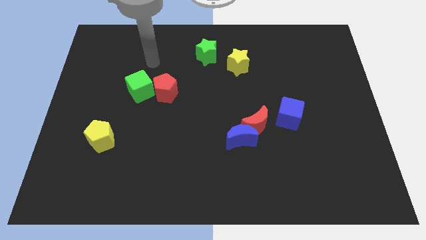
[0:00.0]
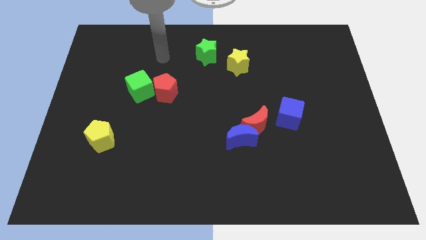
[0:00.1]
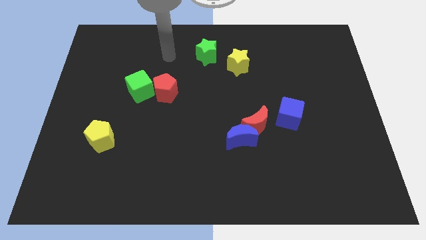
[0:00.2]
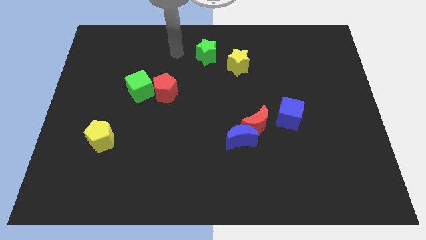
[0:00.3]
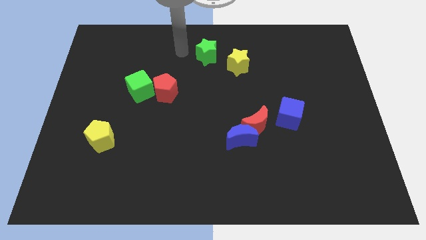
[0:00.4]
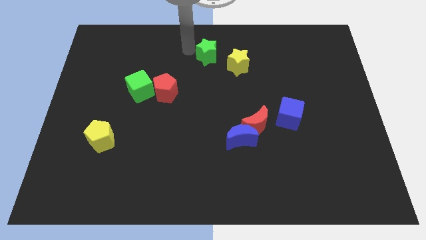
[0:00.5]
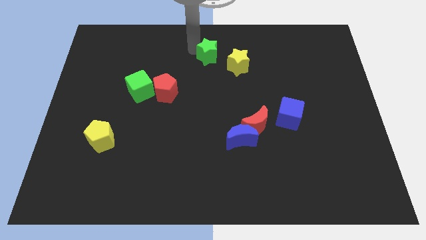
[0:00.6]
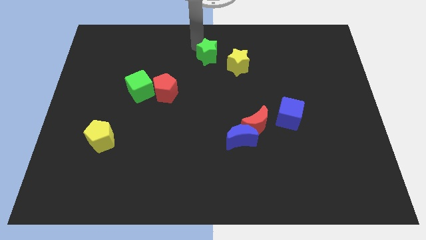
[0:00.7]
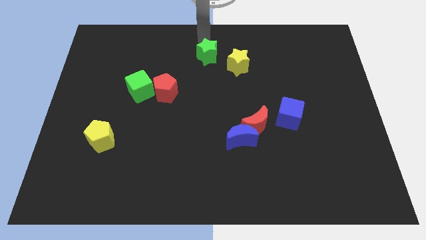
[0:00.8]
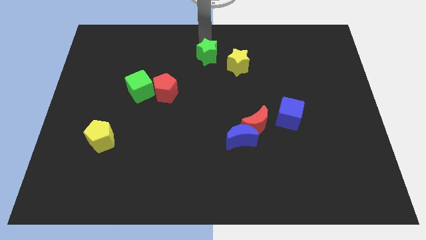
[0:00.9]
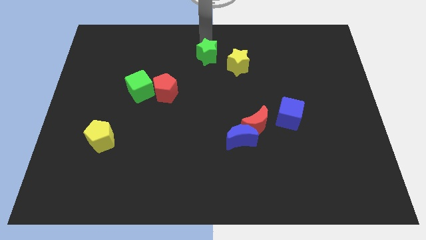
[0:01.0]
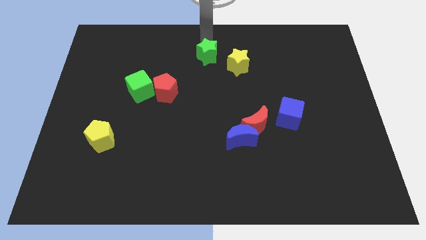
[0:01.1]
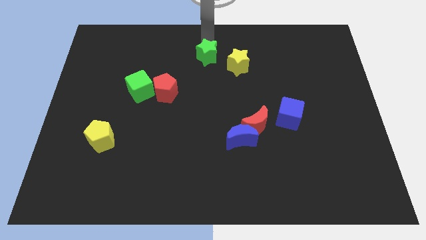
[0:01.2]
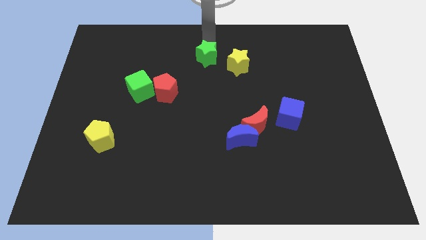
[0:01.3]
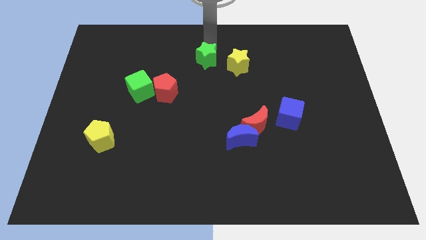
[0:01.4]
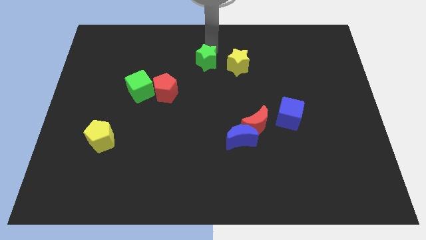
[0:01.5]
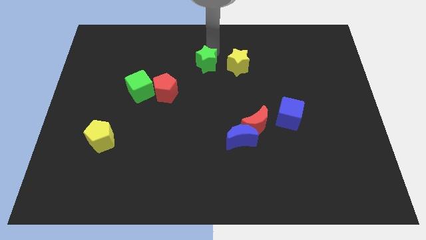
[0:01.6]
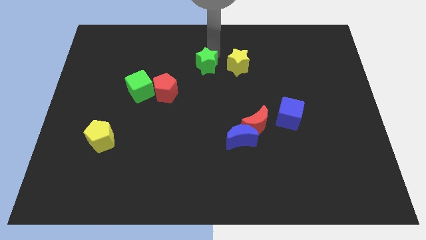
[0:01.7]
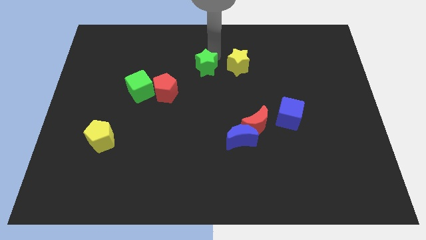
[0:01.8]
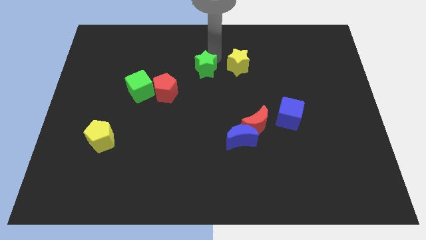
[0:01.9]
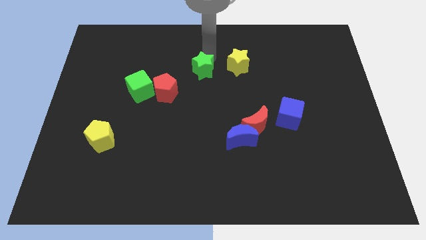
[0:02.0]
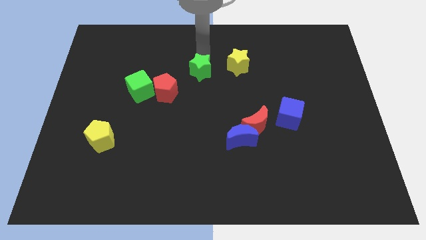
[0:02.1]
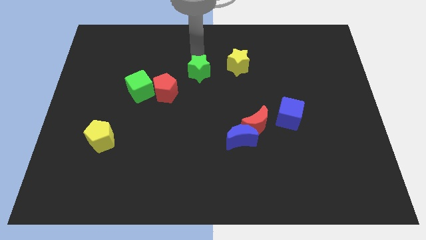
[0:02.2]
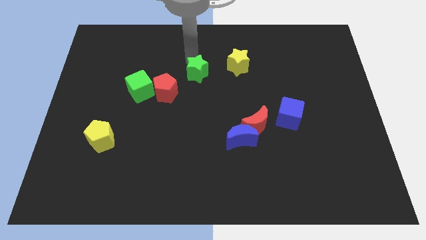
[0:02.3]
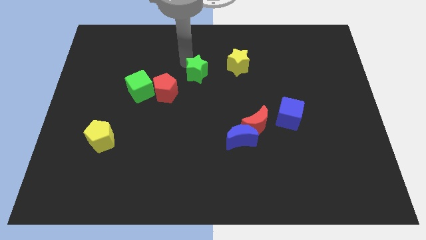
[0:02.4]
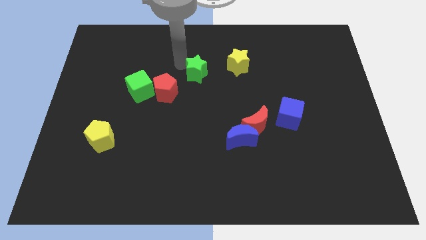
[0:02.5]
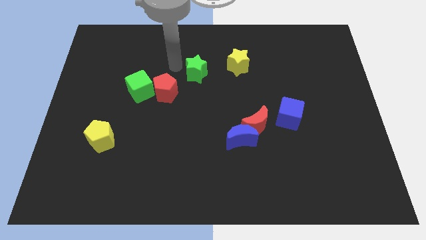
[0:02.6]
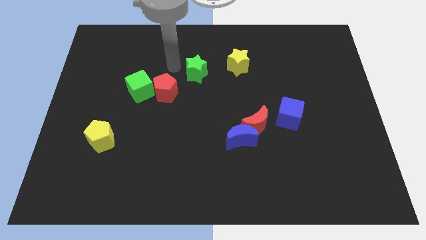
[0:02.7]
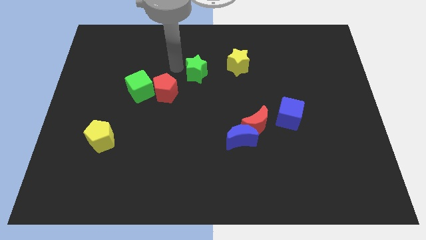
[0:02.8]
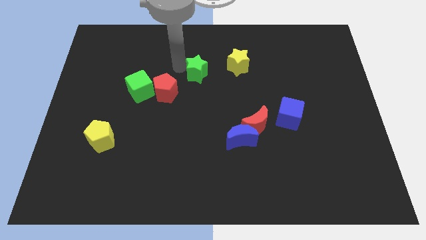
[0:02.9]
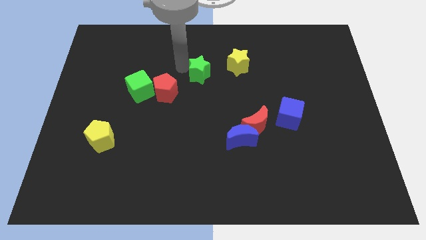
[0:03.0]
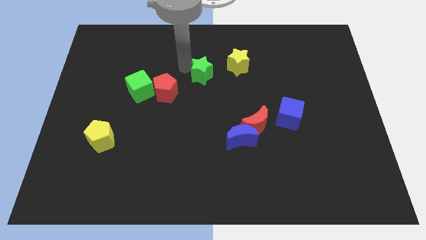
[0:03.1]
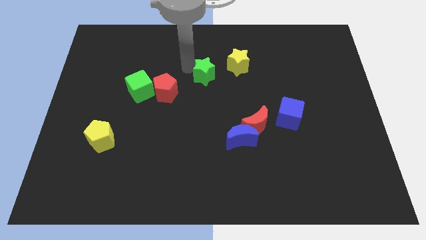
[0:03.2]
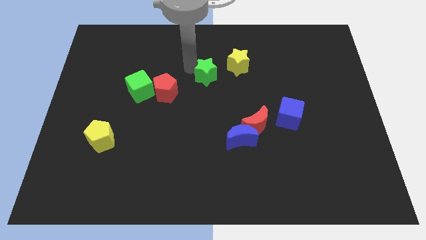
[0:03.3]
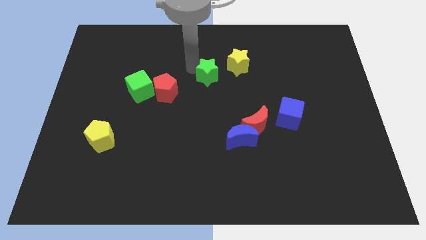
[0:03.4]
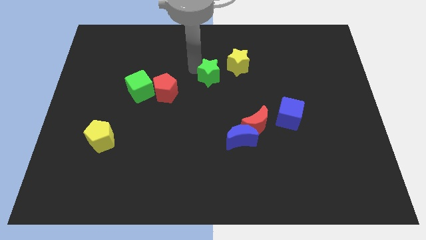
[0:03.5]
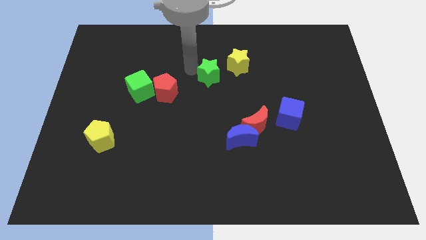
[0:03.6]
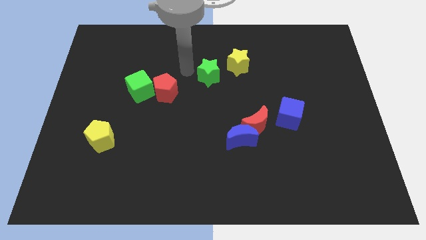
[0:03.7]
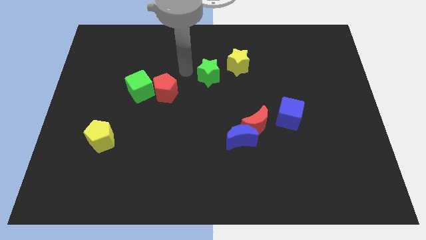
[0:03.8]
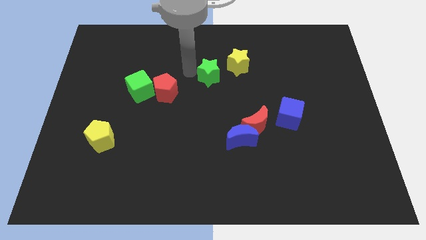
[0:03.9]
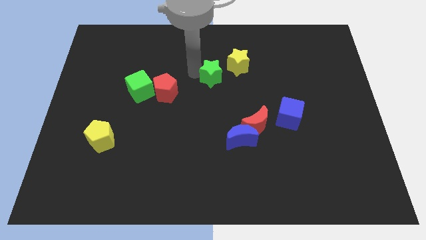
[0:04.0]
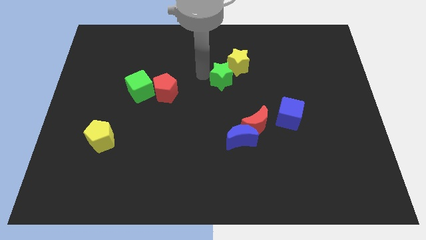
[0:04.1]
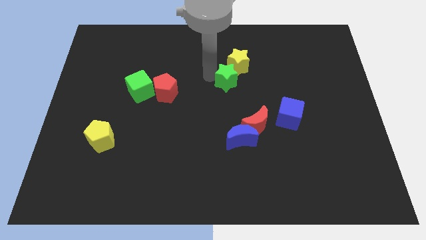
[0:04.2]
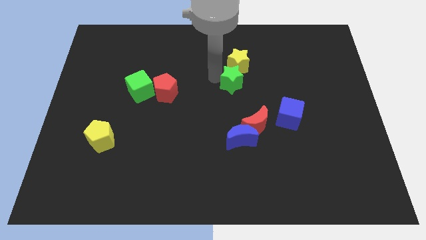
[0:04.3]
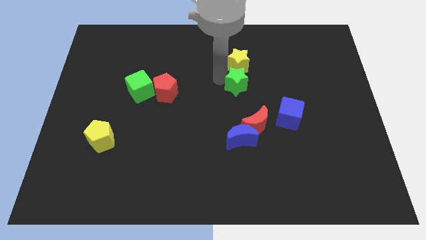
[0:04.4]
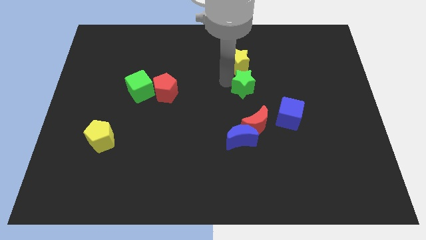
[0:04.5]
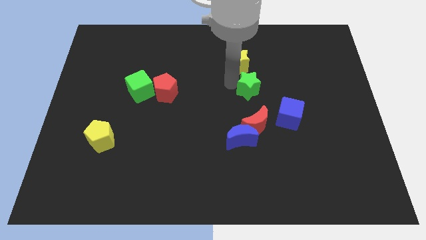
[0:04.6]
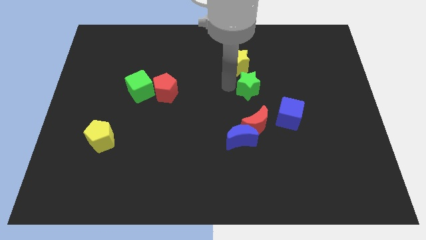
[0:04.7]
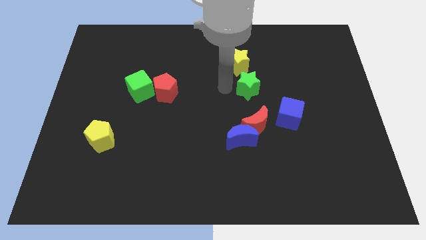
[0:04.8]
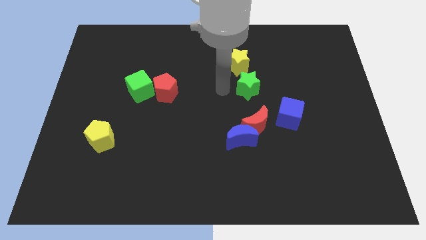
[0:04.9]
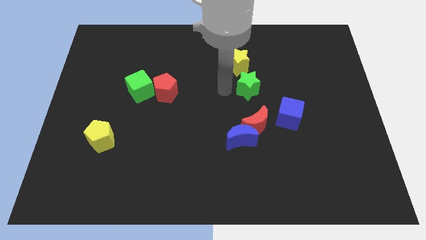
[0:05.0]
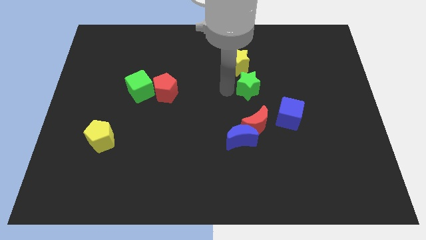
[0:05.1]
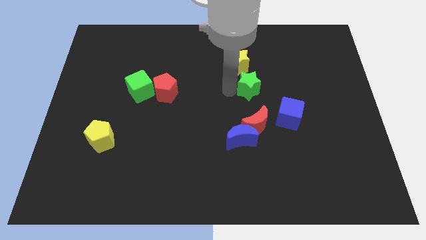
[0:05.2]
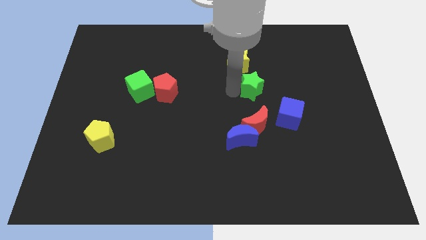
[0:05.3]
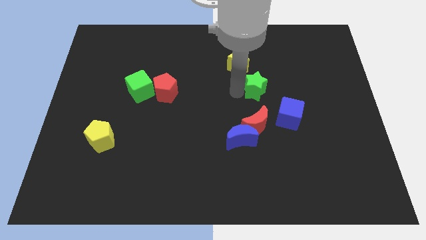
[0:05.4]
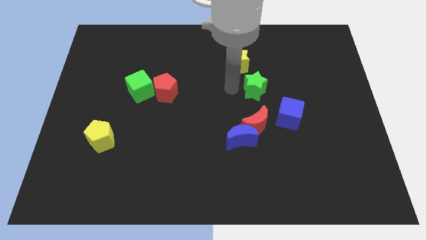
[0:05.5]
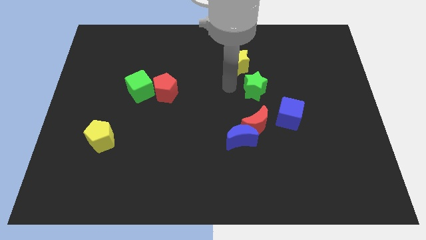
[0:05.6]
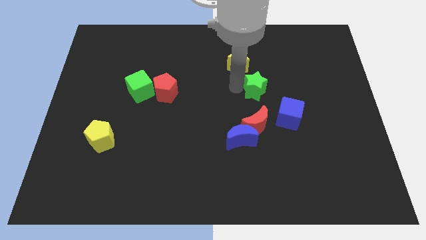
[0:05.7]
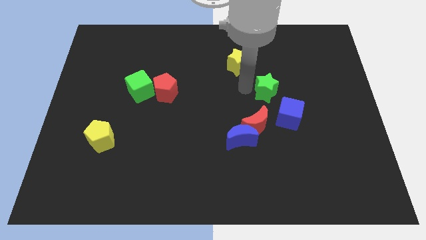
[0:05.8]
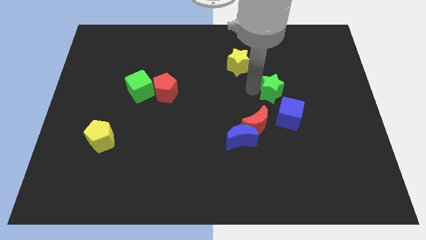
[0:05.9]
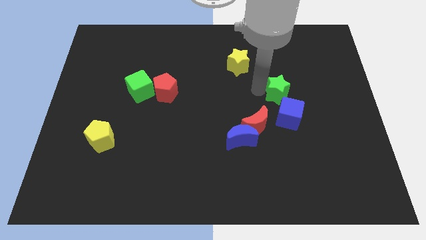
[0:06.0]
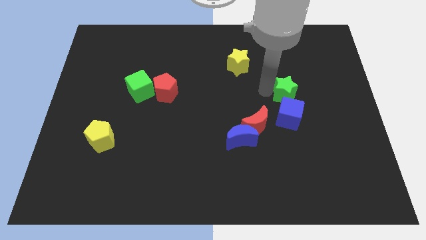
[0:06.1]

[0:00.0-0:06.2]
push the green star diagonally up and to the right of the blue cube

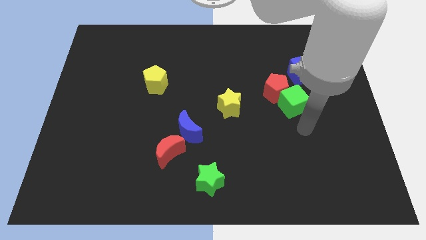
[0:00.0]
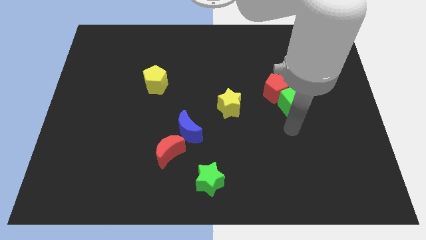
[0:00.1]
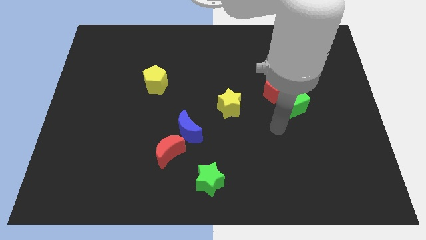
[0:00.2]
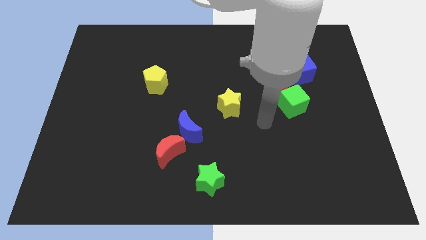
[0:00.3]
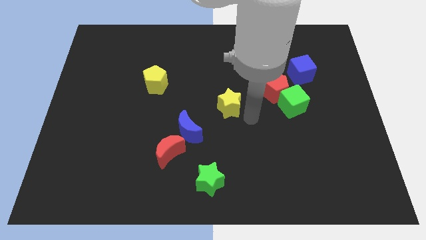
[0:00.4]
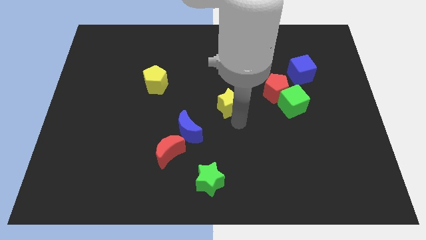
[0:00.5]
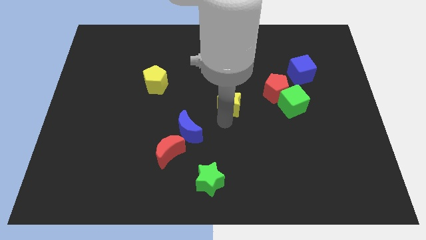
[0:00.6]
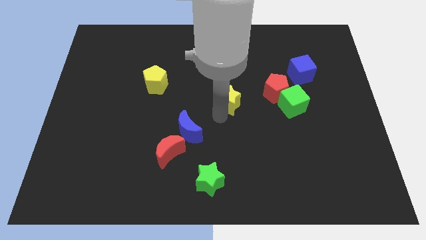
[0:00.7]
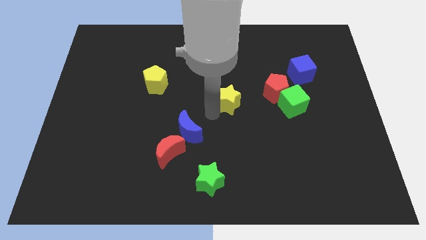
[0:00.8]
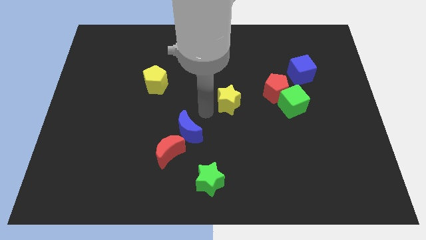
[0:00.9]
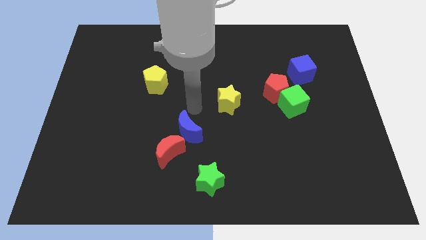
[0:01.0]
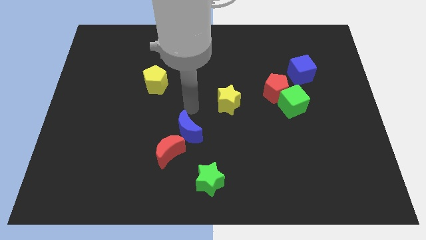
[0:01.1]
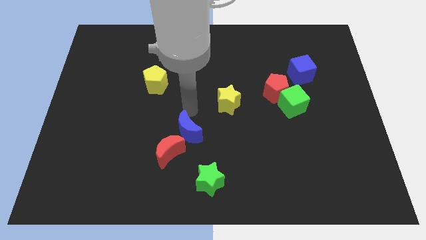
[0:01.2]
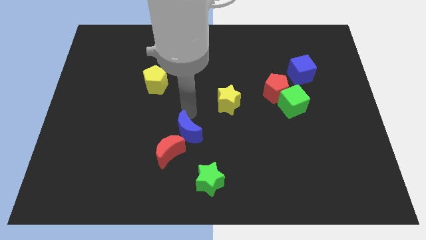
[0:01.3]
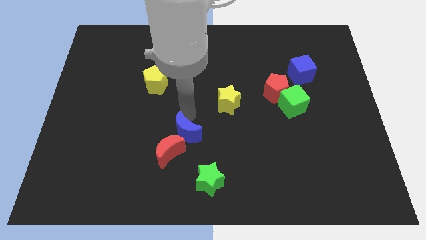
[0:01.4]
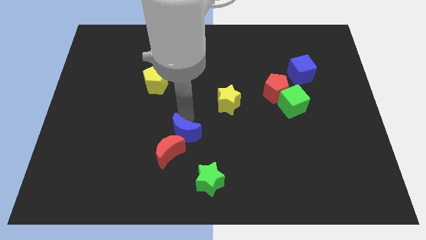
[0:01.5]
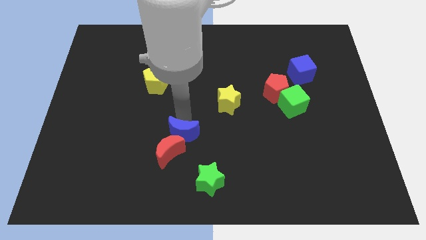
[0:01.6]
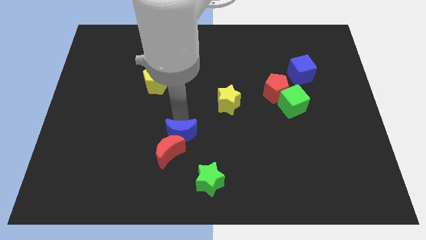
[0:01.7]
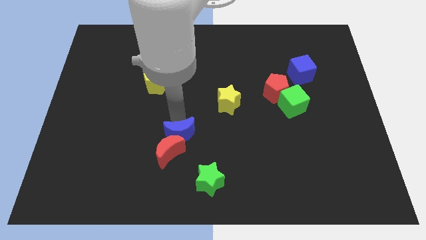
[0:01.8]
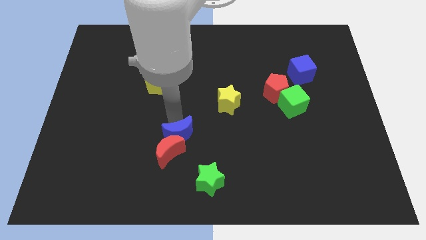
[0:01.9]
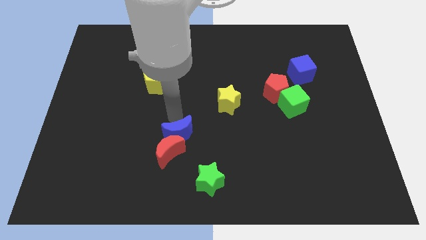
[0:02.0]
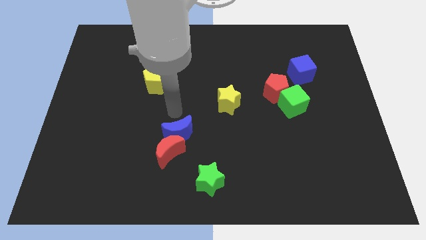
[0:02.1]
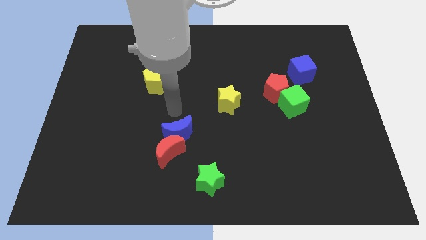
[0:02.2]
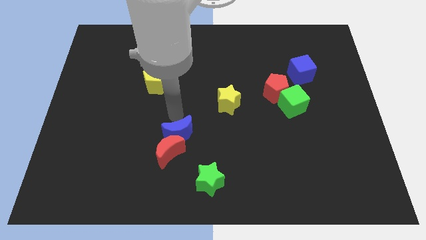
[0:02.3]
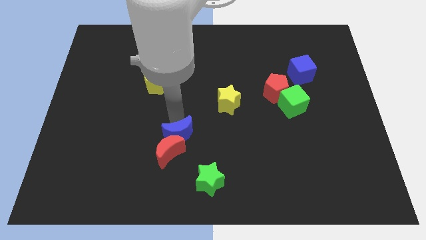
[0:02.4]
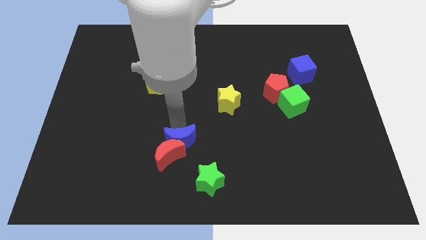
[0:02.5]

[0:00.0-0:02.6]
push the blue moon to the top left side of the green star
